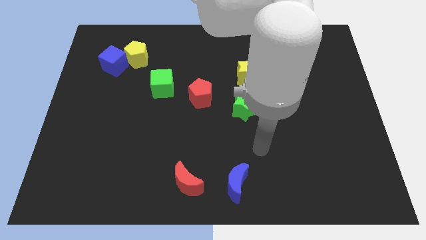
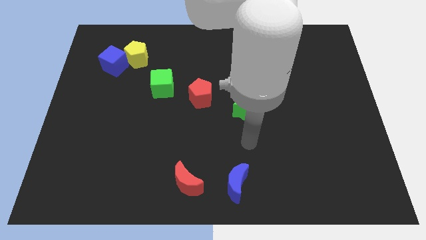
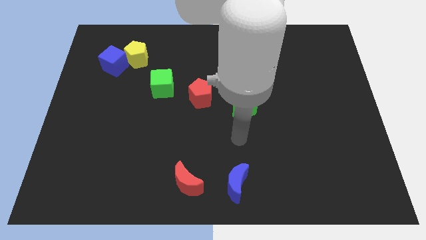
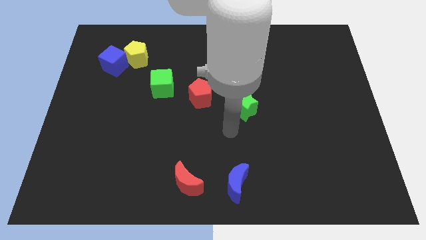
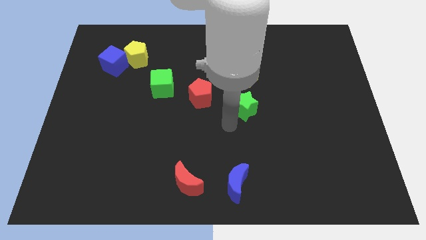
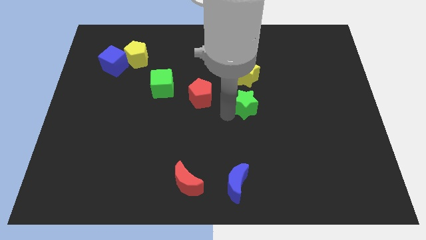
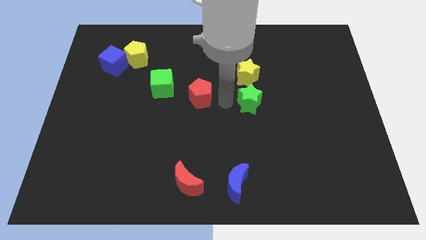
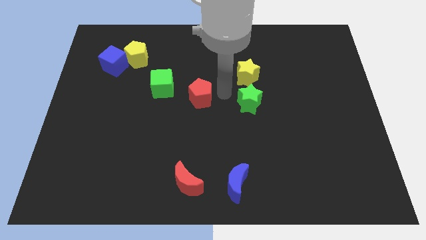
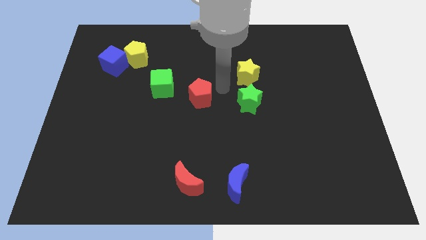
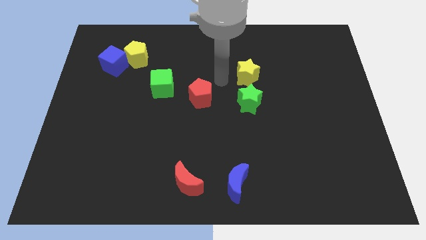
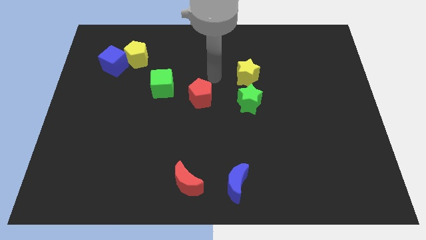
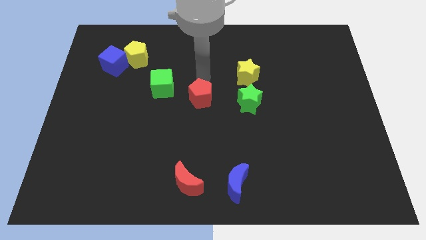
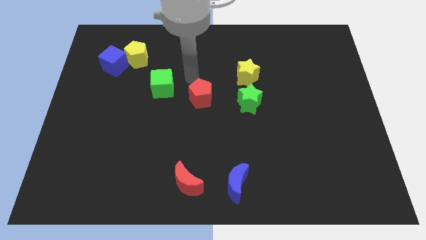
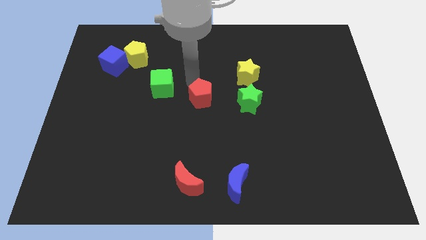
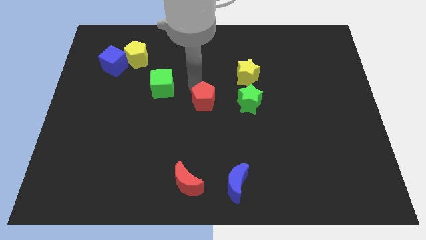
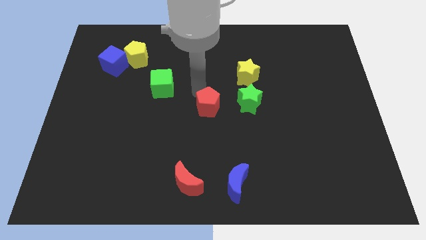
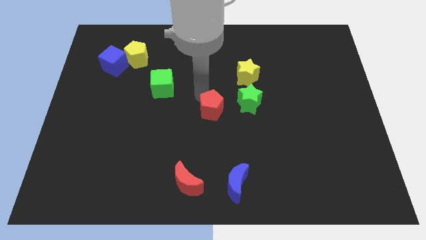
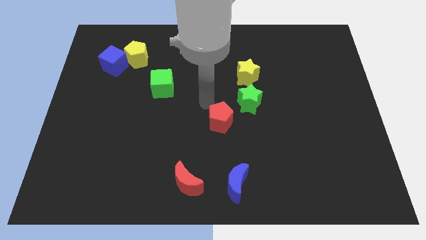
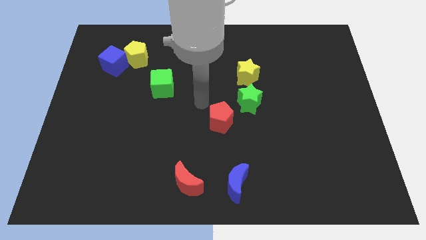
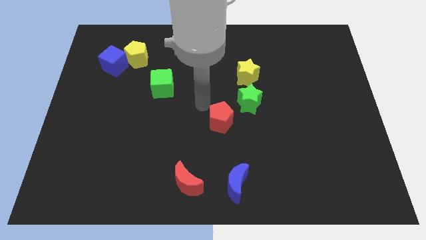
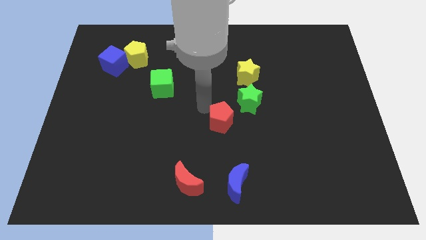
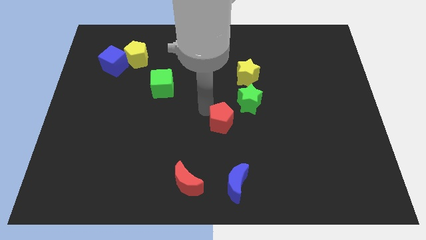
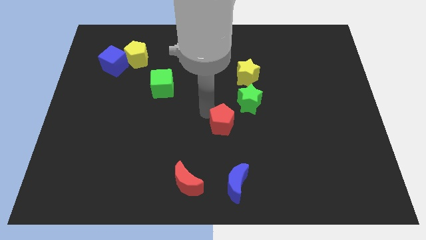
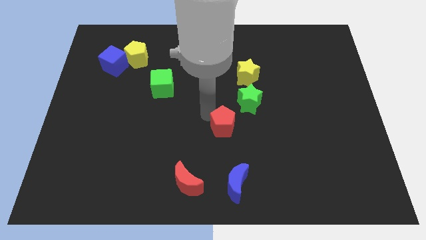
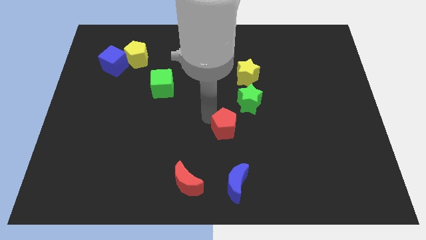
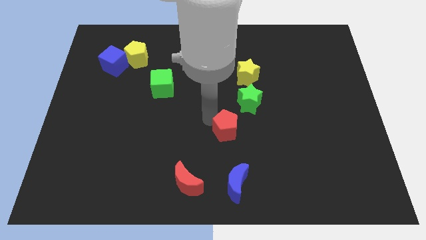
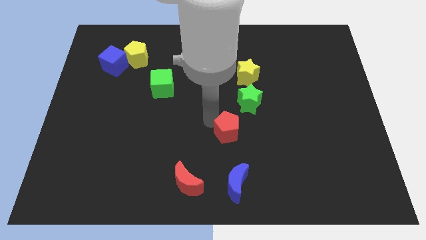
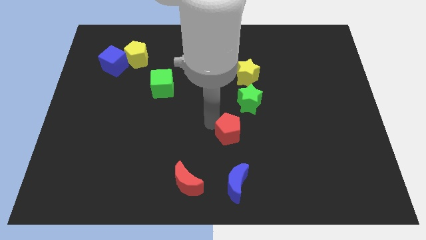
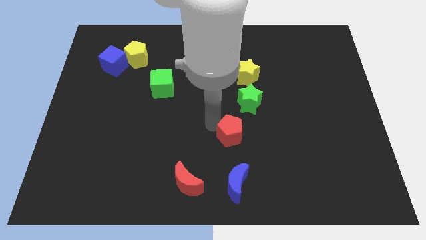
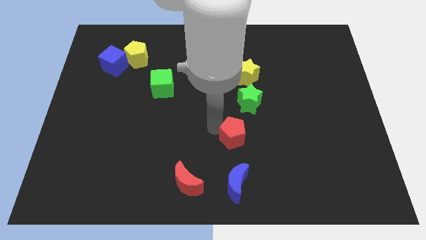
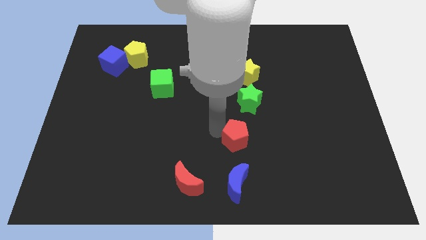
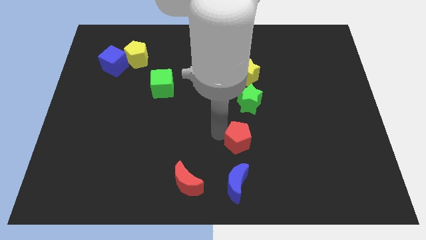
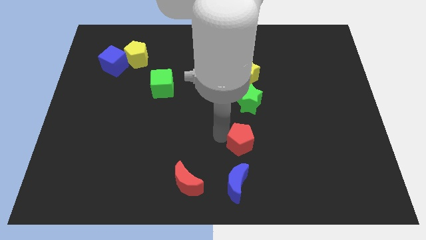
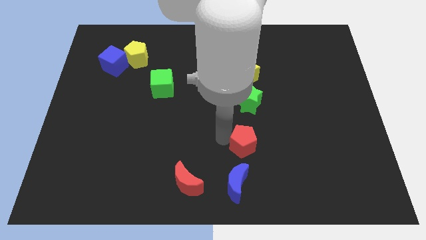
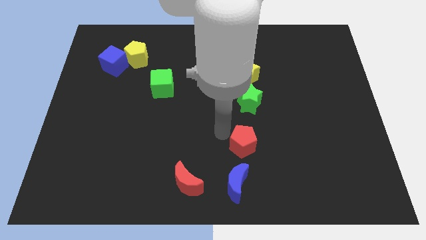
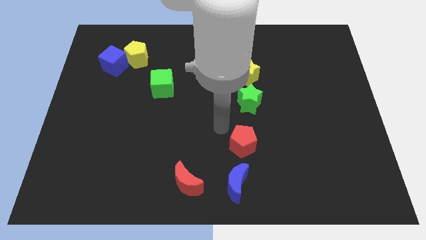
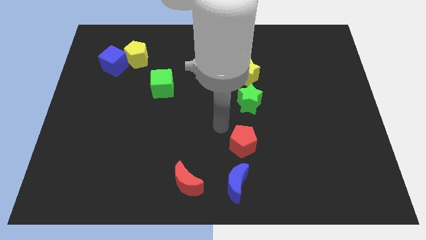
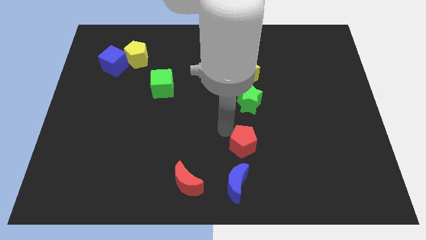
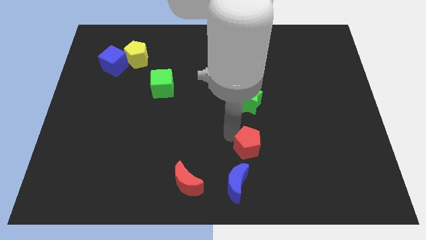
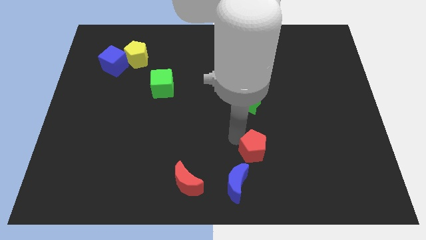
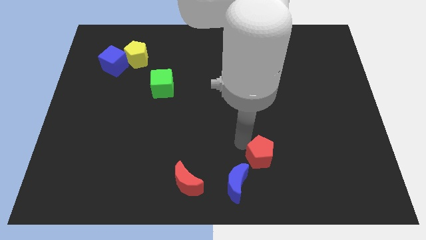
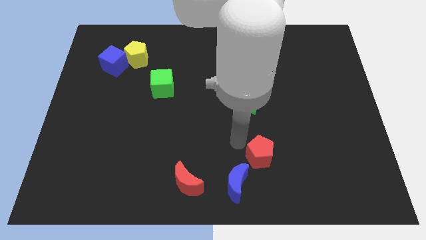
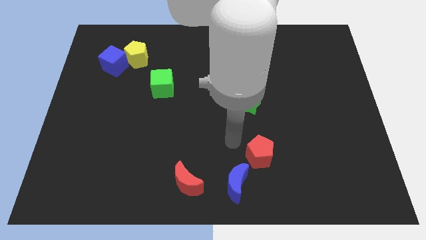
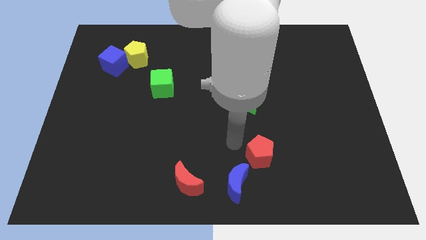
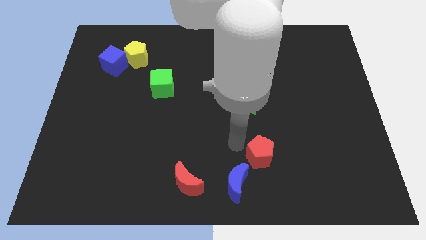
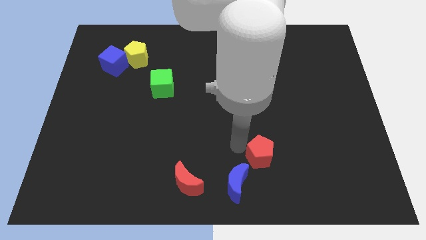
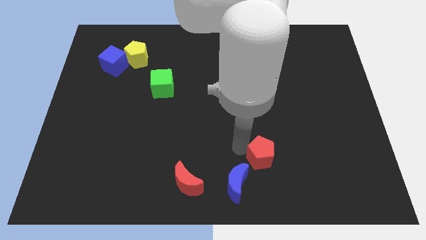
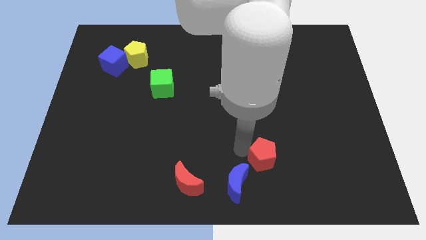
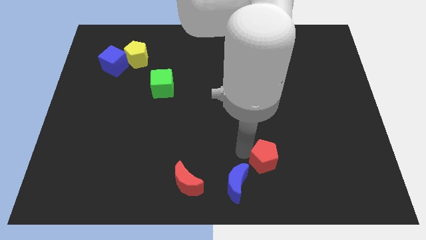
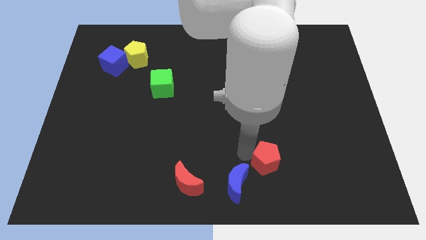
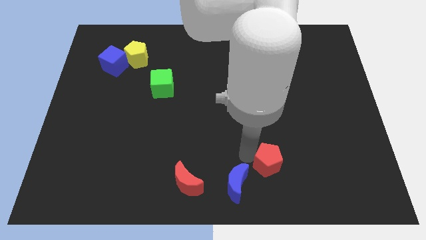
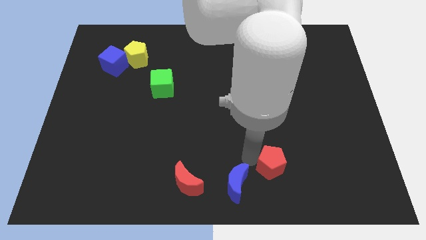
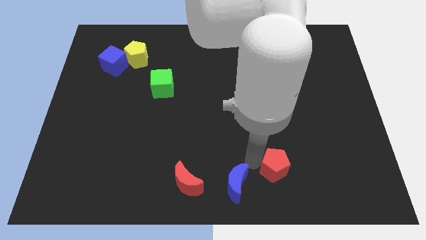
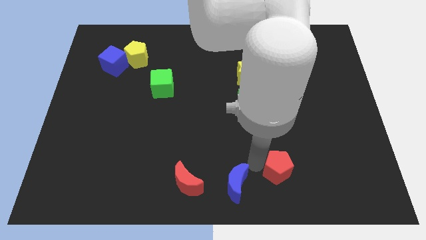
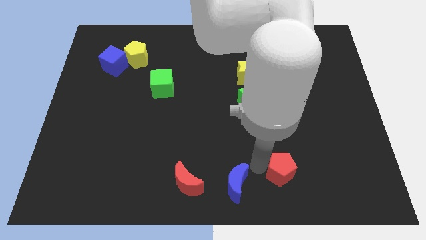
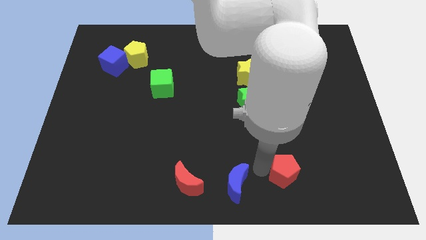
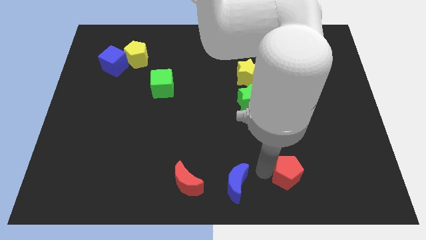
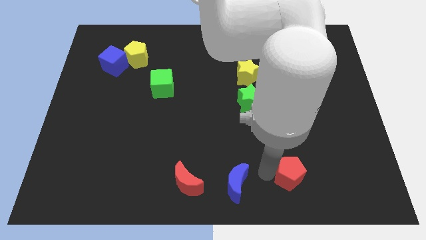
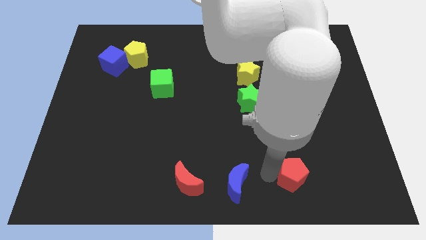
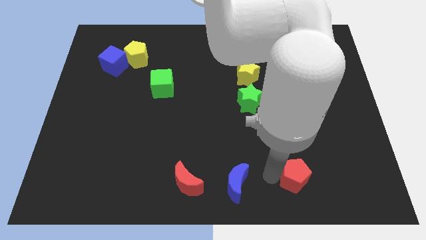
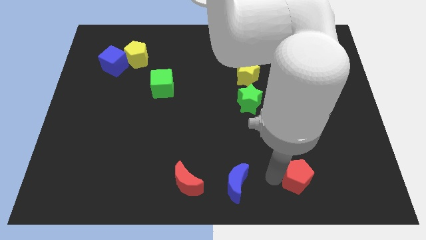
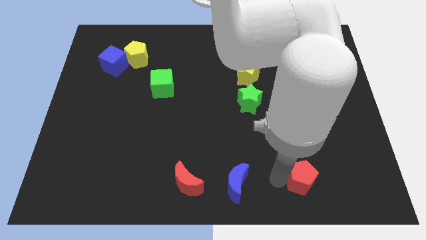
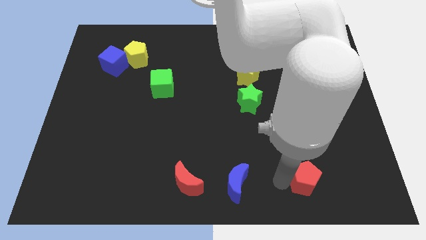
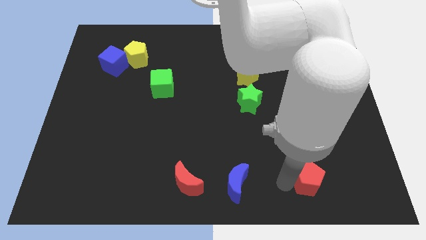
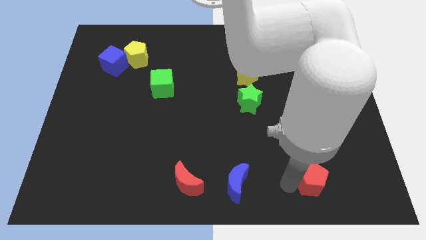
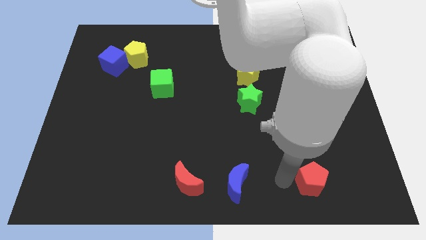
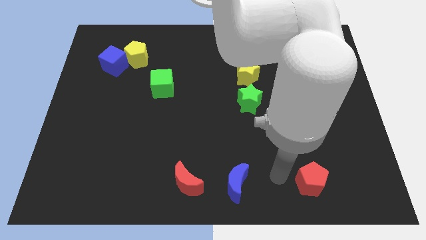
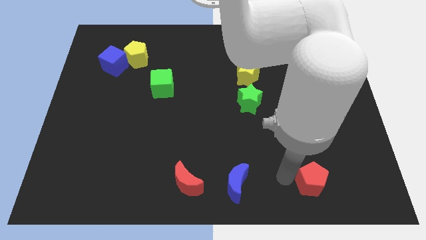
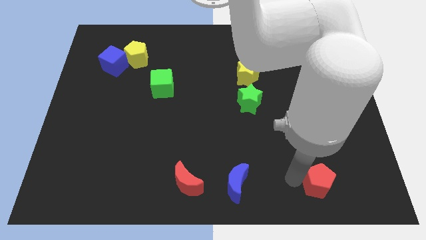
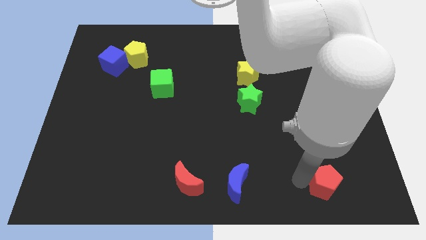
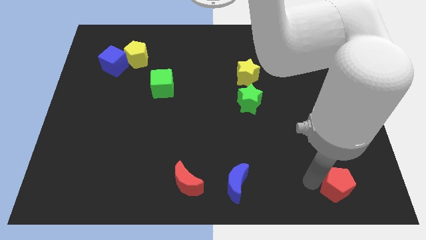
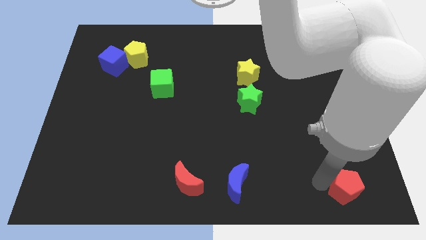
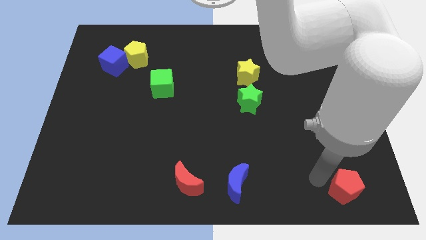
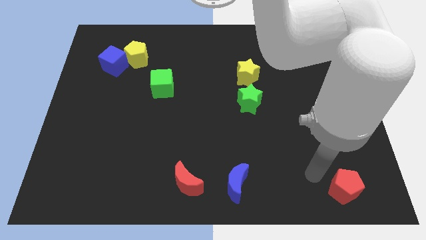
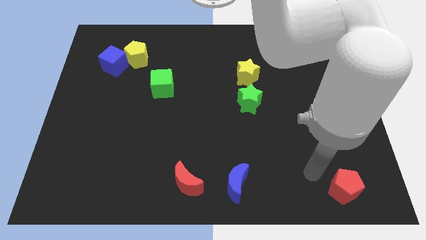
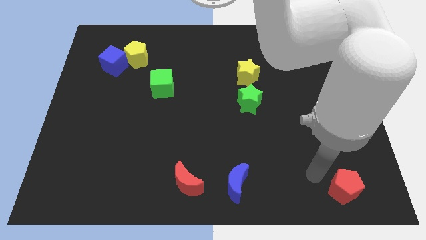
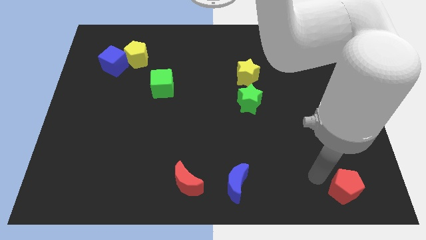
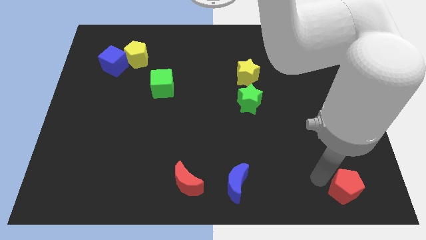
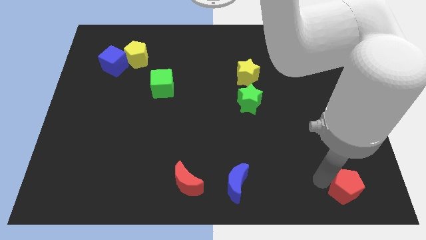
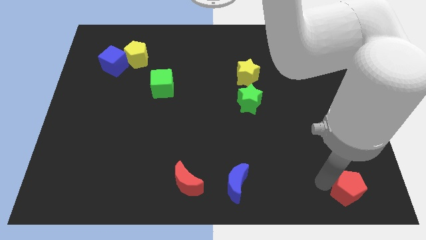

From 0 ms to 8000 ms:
move the red pentagon to the bottom right
